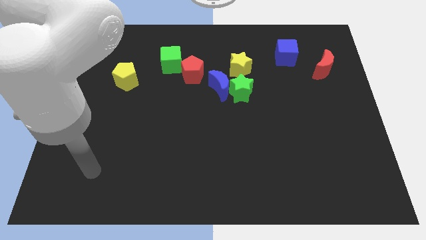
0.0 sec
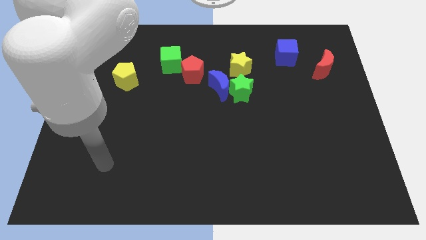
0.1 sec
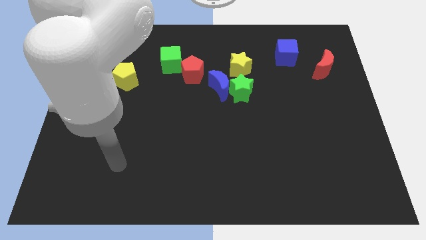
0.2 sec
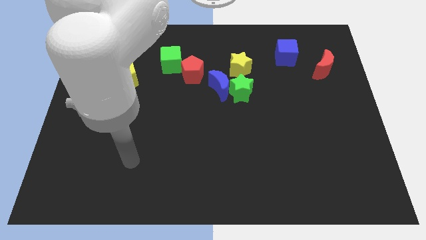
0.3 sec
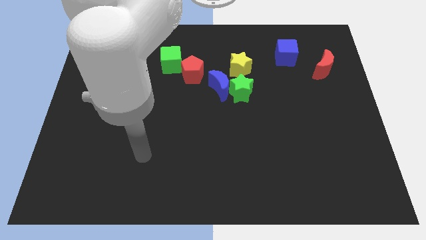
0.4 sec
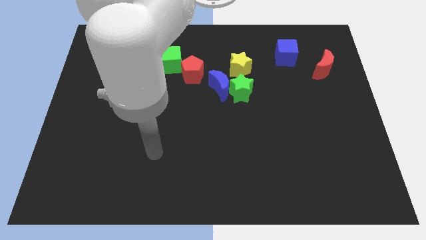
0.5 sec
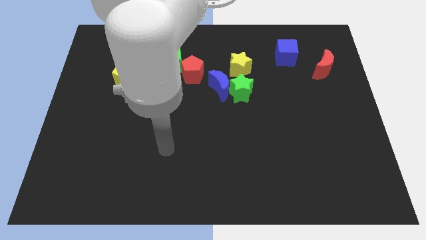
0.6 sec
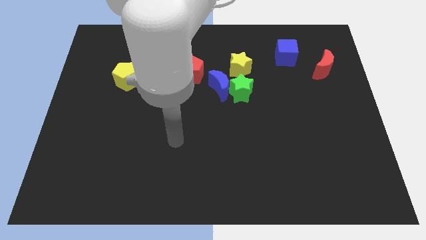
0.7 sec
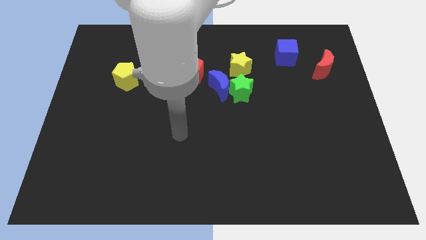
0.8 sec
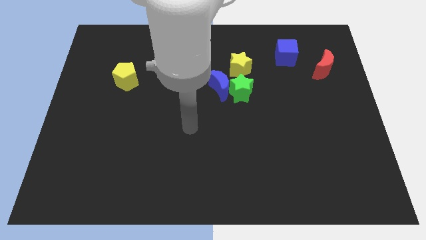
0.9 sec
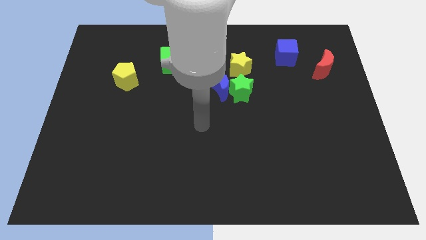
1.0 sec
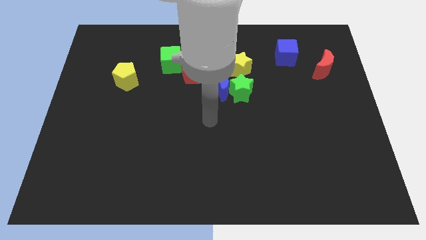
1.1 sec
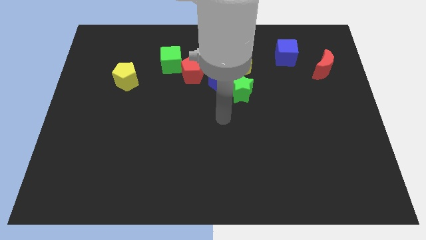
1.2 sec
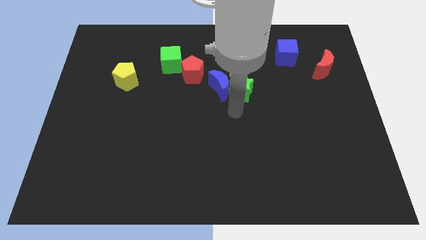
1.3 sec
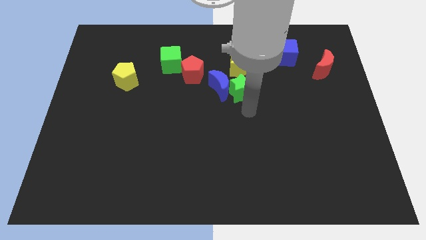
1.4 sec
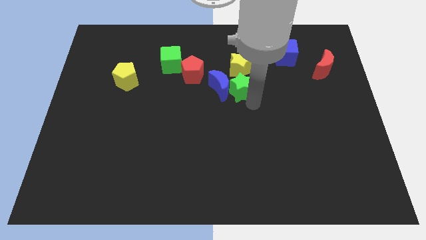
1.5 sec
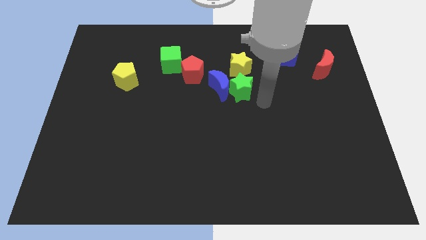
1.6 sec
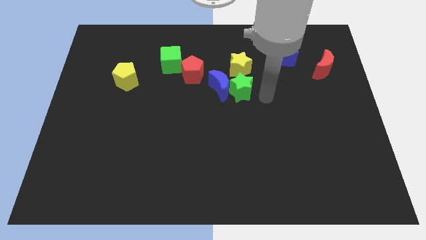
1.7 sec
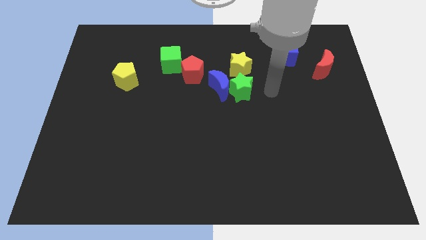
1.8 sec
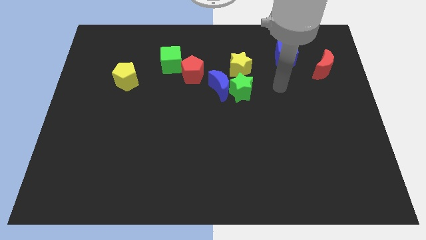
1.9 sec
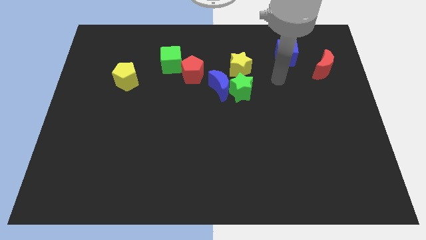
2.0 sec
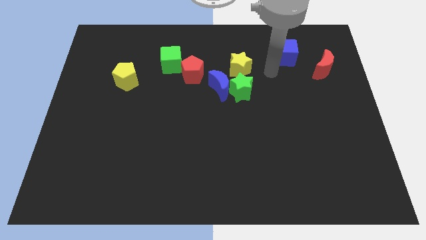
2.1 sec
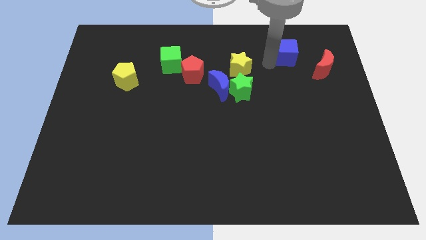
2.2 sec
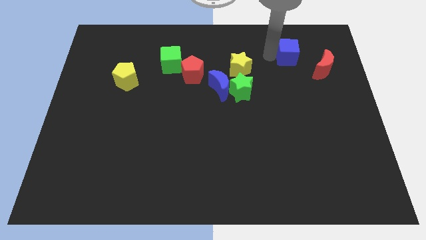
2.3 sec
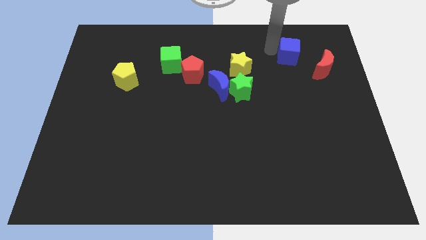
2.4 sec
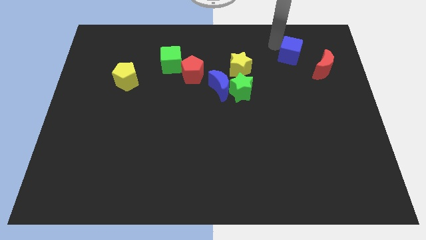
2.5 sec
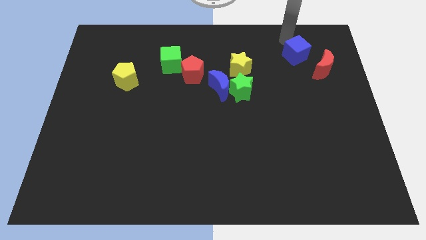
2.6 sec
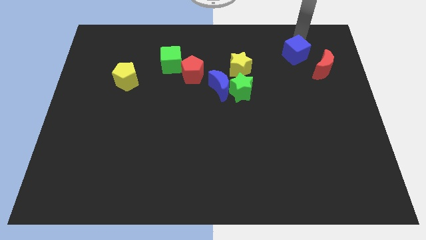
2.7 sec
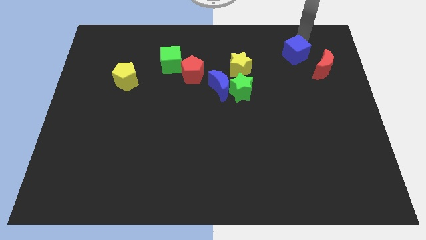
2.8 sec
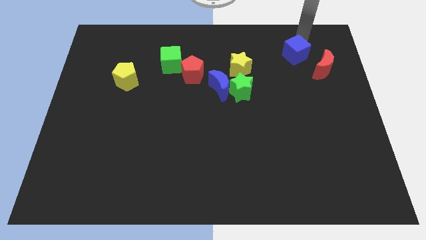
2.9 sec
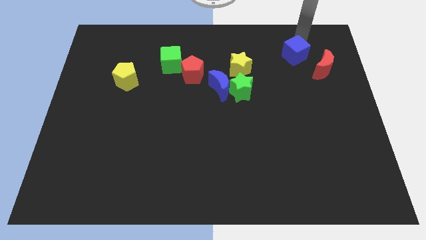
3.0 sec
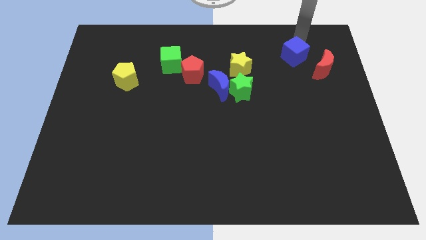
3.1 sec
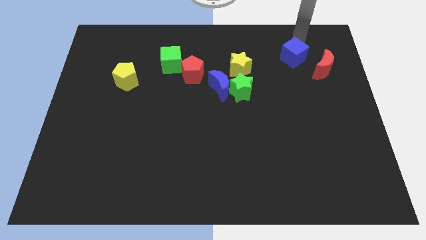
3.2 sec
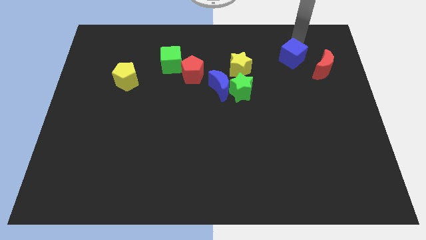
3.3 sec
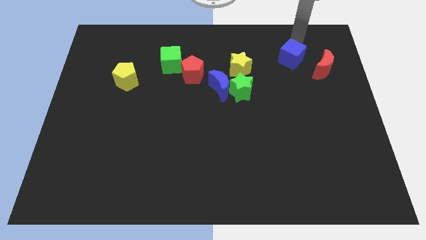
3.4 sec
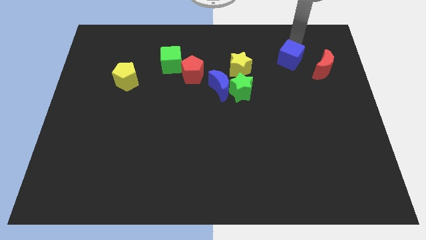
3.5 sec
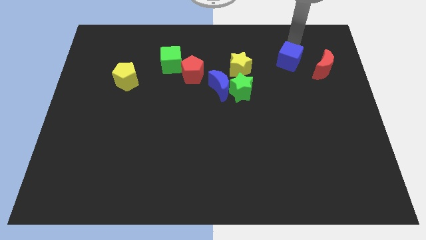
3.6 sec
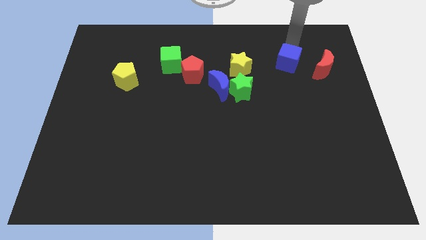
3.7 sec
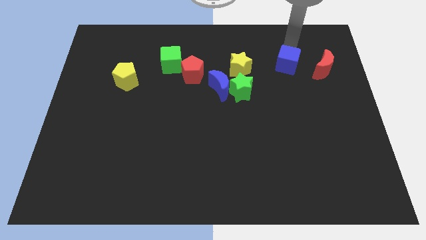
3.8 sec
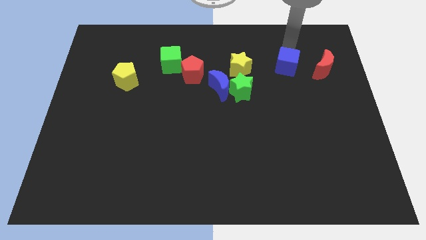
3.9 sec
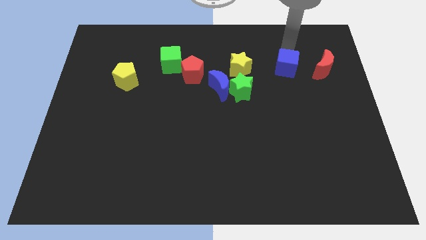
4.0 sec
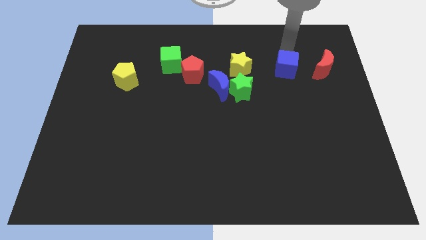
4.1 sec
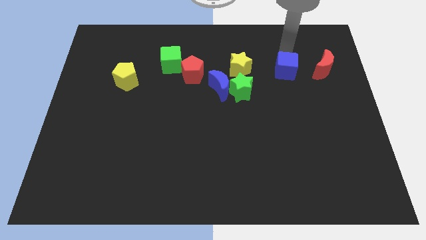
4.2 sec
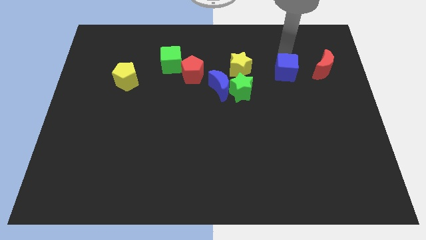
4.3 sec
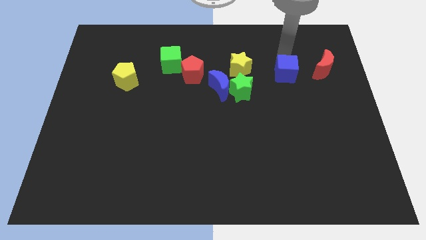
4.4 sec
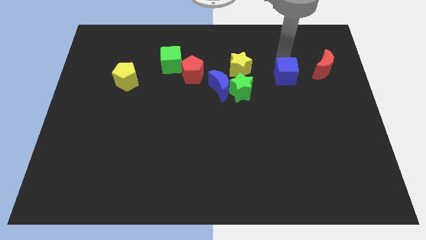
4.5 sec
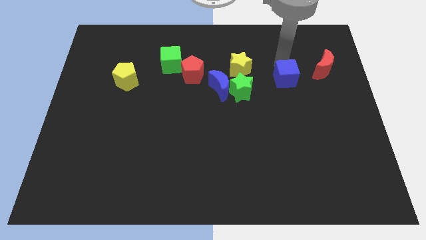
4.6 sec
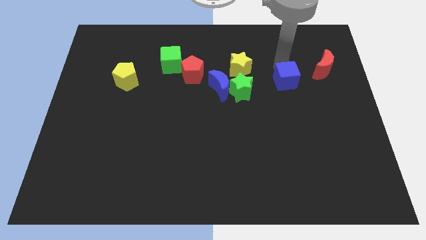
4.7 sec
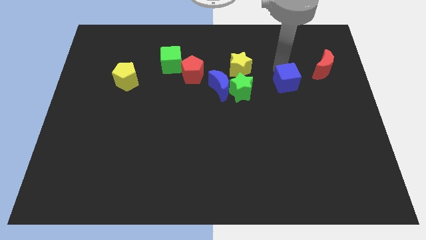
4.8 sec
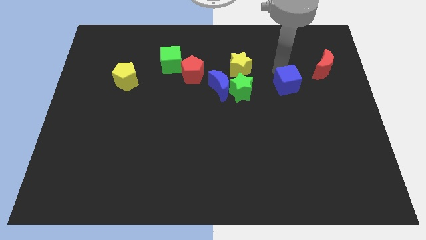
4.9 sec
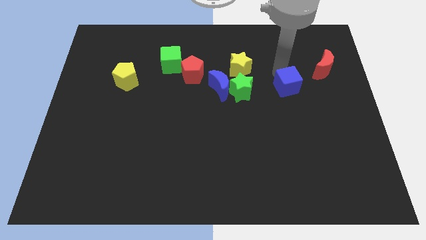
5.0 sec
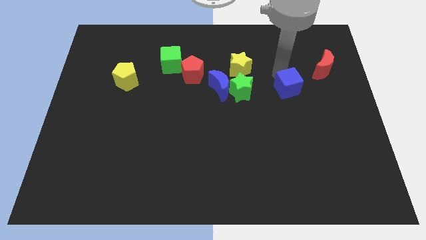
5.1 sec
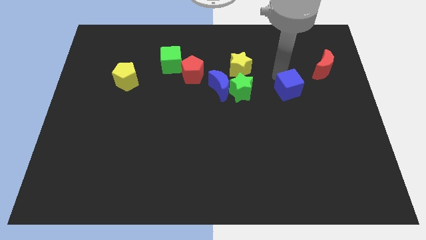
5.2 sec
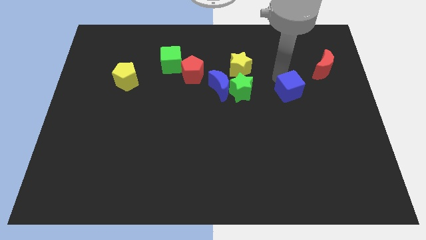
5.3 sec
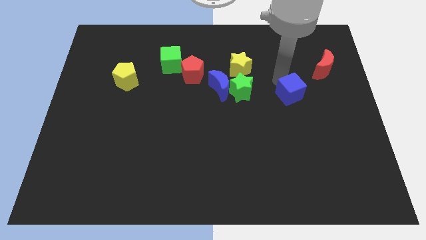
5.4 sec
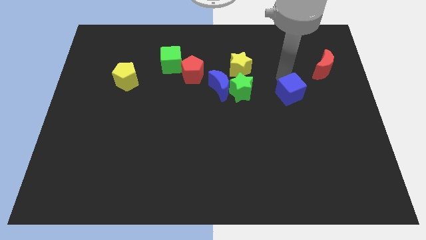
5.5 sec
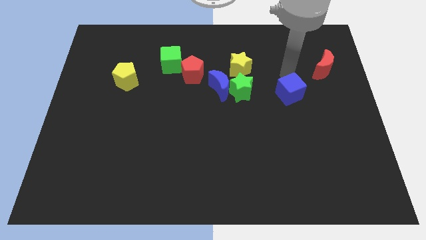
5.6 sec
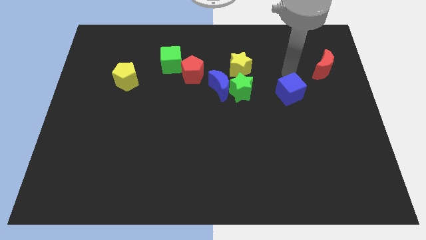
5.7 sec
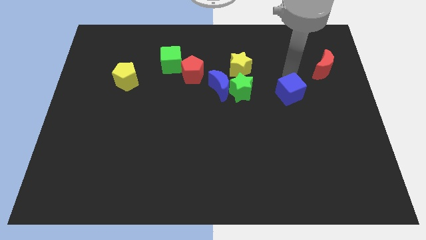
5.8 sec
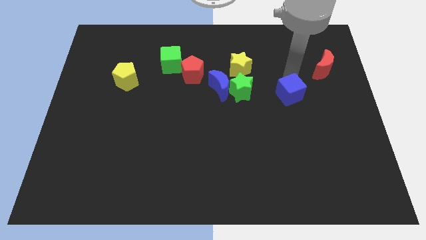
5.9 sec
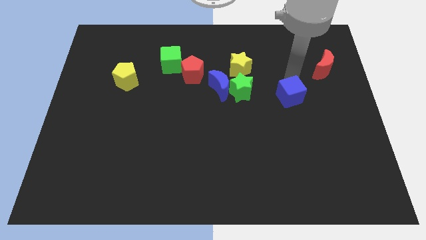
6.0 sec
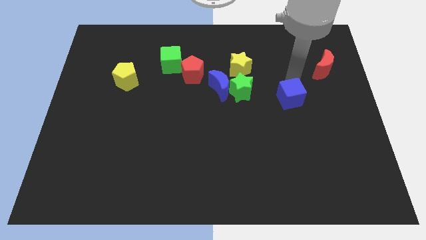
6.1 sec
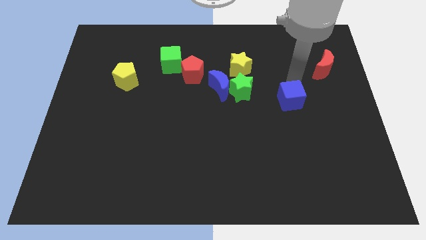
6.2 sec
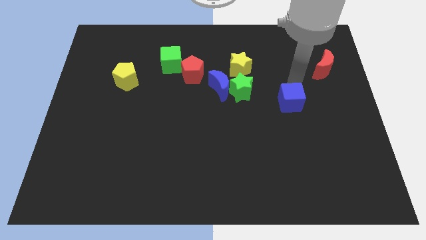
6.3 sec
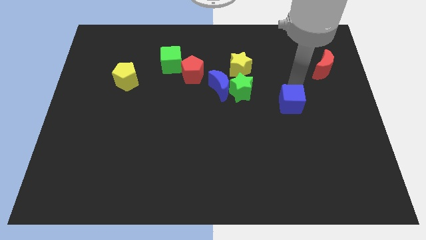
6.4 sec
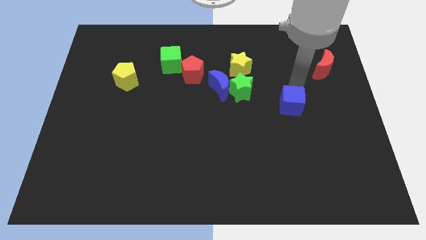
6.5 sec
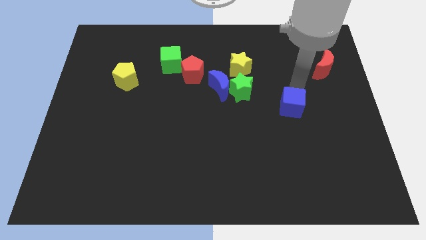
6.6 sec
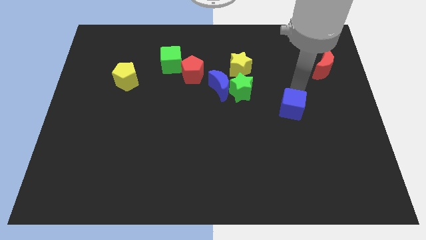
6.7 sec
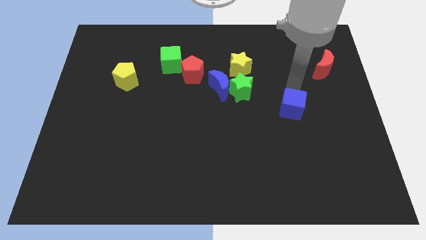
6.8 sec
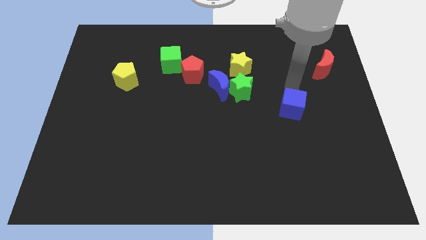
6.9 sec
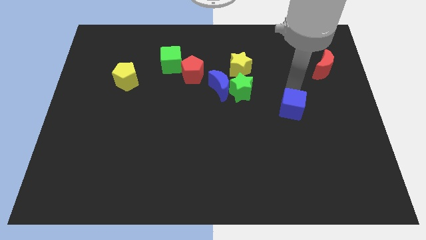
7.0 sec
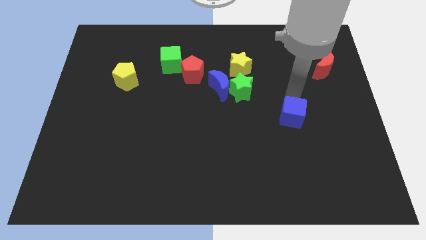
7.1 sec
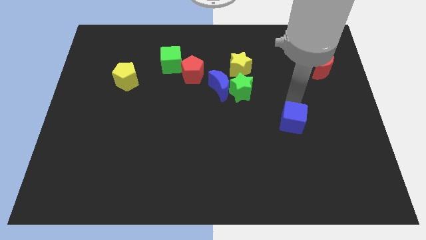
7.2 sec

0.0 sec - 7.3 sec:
move the blue cube down

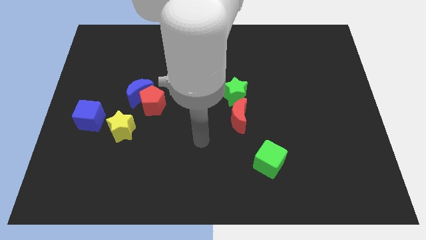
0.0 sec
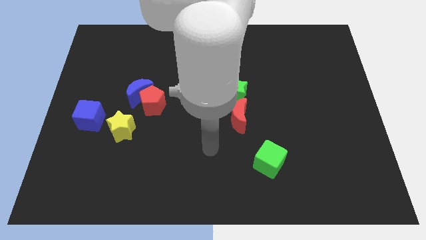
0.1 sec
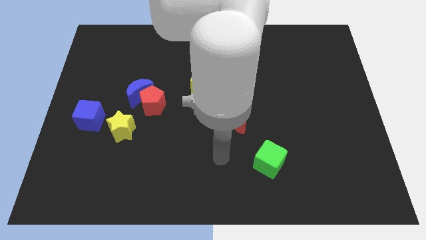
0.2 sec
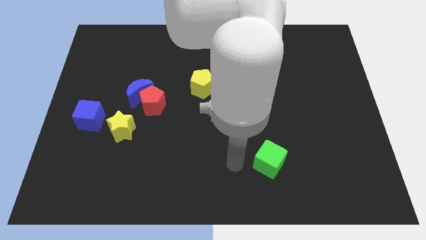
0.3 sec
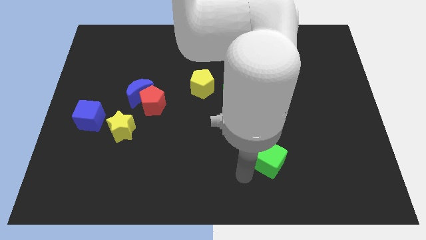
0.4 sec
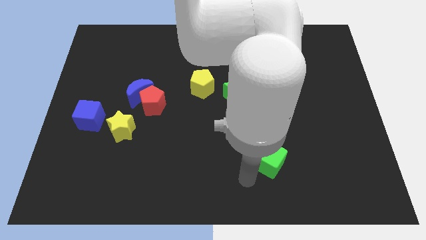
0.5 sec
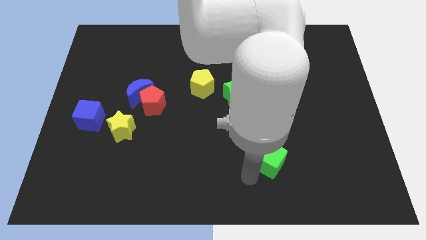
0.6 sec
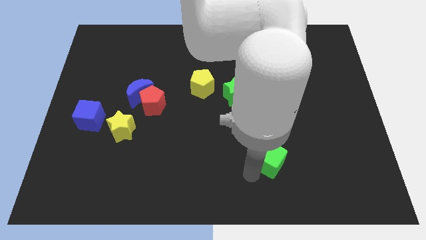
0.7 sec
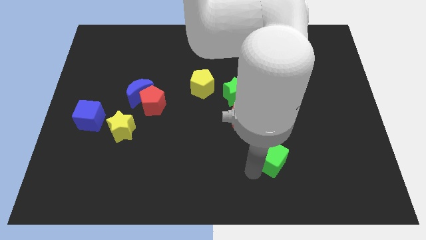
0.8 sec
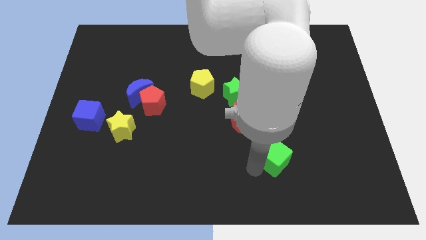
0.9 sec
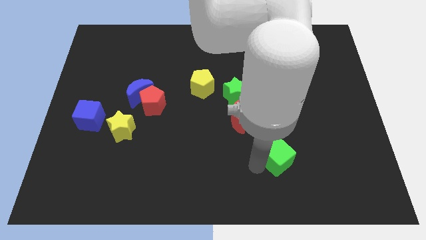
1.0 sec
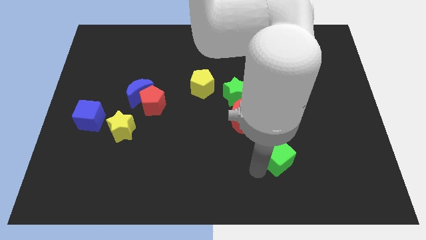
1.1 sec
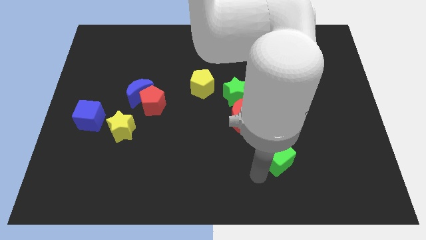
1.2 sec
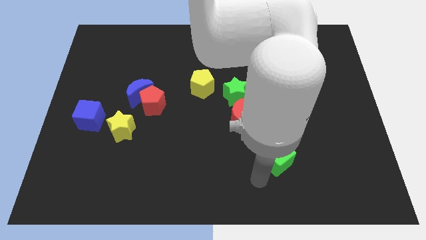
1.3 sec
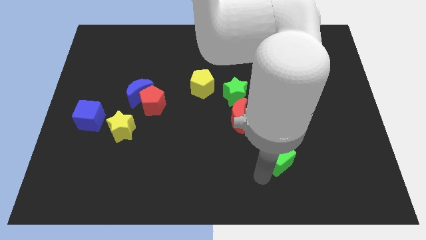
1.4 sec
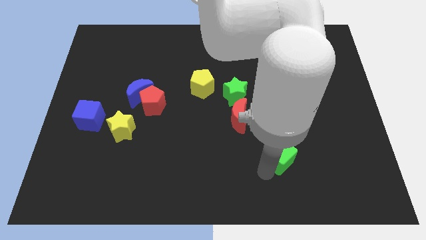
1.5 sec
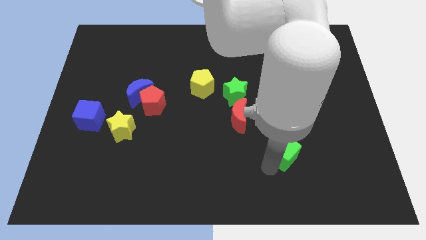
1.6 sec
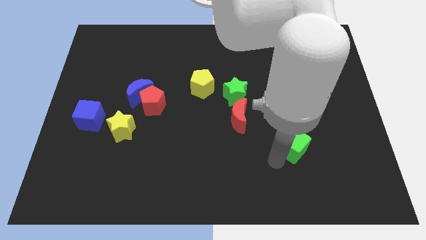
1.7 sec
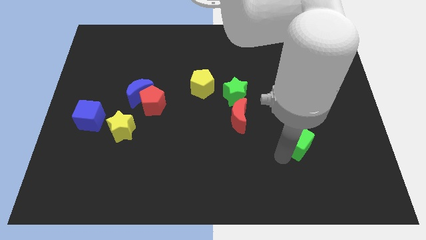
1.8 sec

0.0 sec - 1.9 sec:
push the green cube a bit up and to the right
